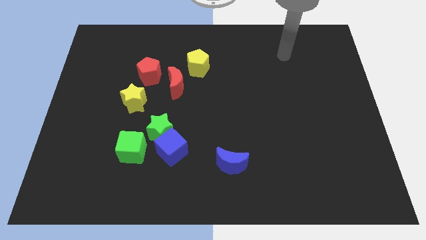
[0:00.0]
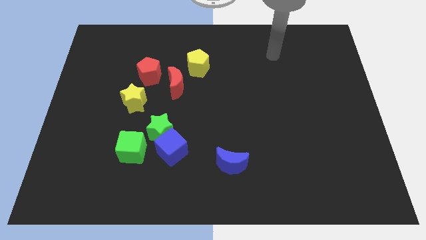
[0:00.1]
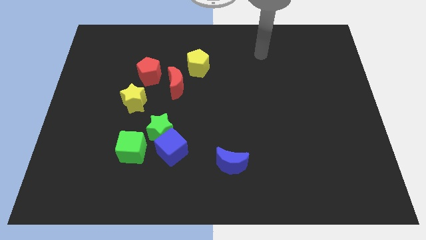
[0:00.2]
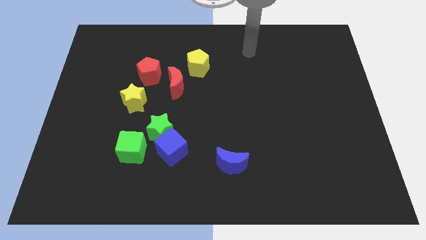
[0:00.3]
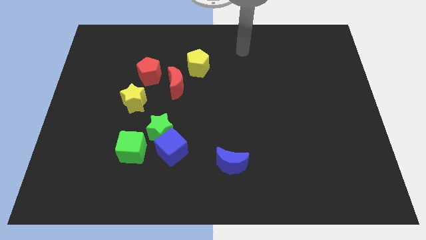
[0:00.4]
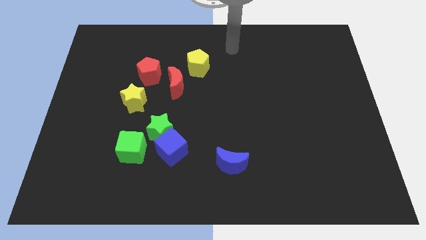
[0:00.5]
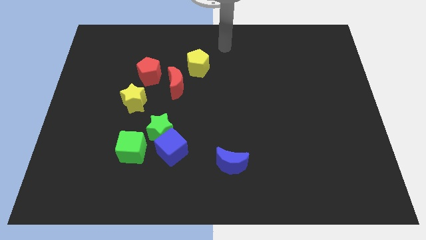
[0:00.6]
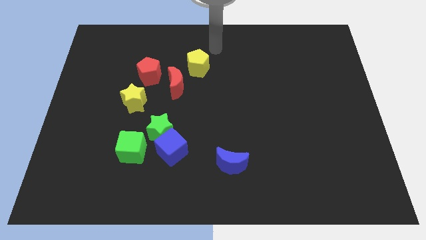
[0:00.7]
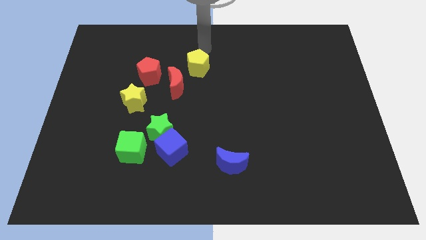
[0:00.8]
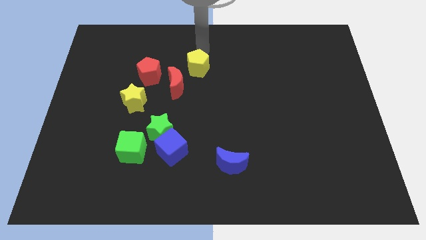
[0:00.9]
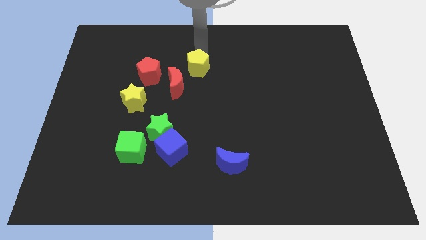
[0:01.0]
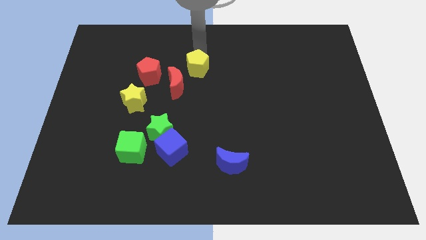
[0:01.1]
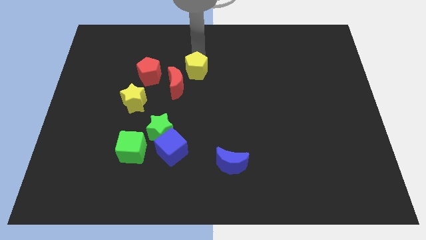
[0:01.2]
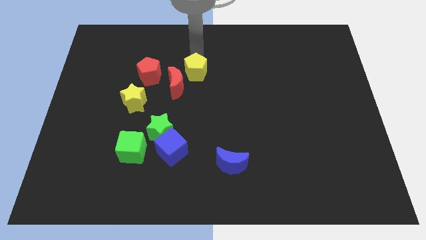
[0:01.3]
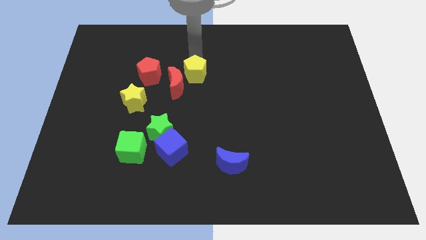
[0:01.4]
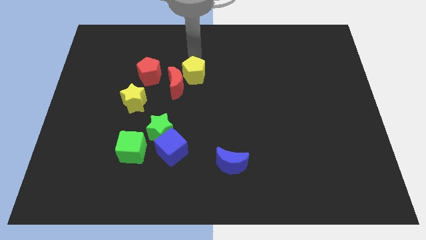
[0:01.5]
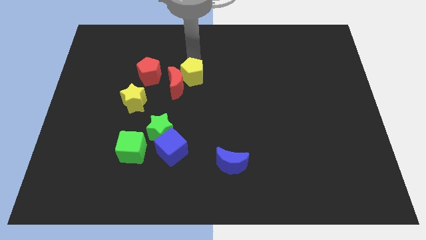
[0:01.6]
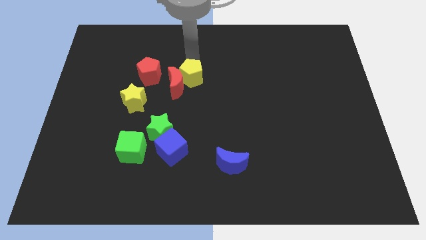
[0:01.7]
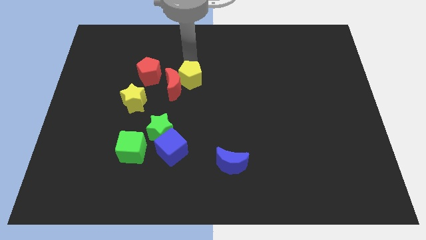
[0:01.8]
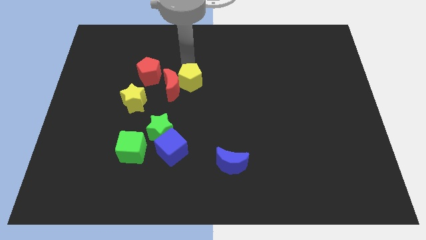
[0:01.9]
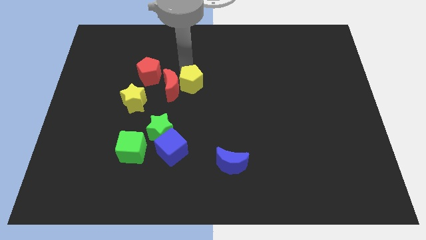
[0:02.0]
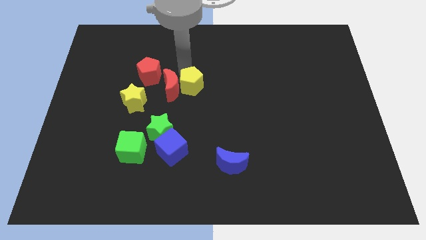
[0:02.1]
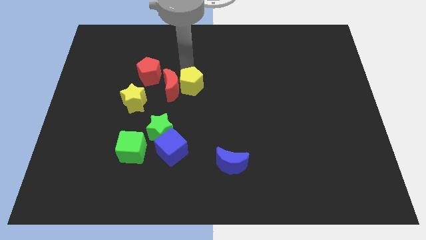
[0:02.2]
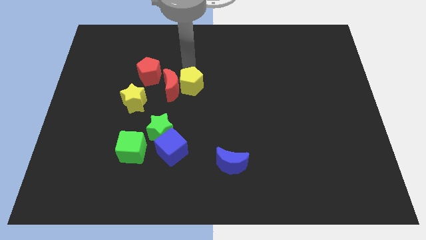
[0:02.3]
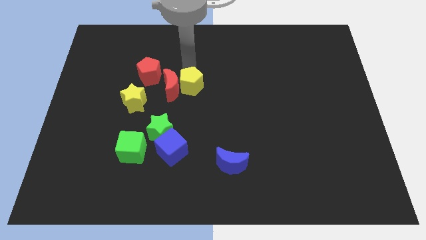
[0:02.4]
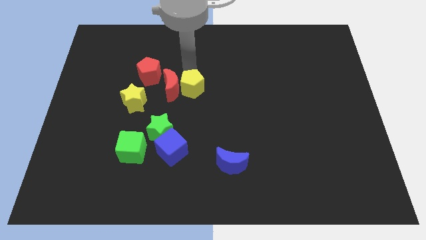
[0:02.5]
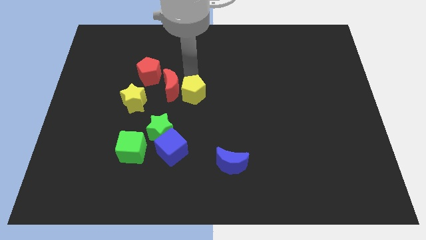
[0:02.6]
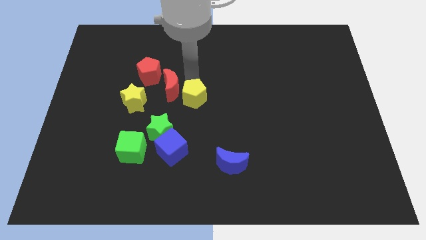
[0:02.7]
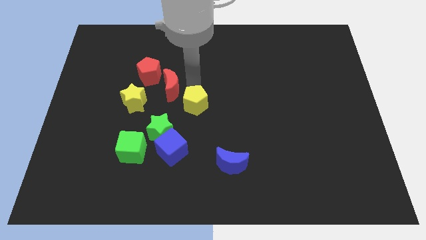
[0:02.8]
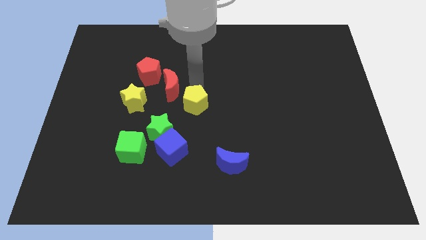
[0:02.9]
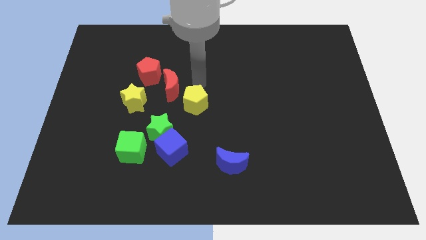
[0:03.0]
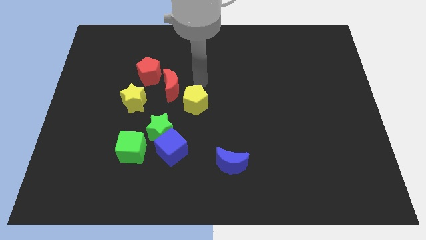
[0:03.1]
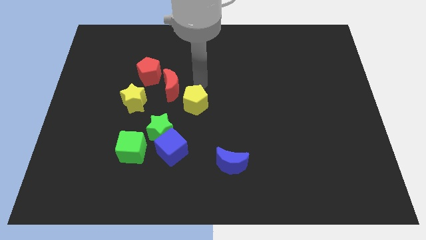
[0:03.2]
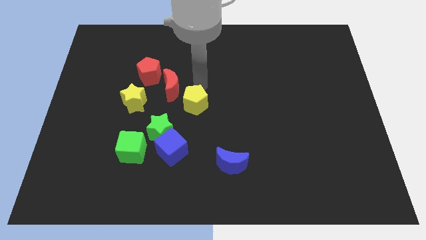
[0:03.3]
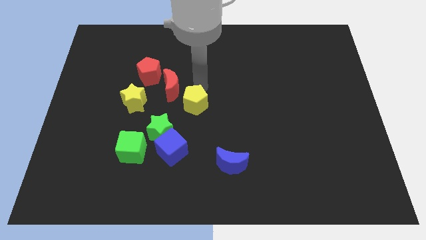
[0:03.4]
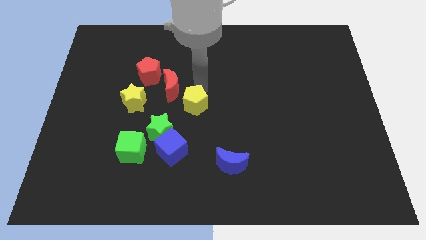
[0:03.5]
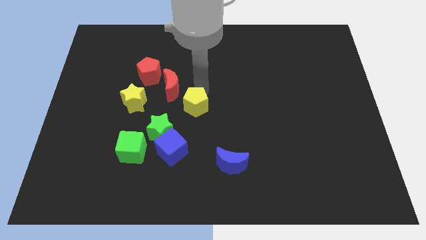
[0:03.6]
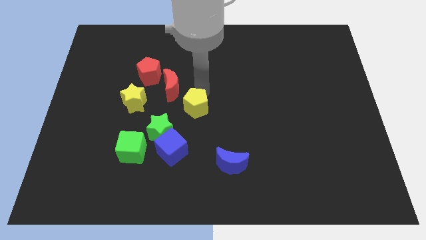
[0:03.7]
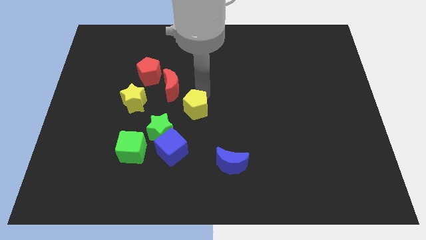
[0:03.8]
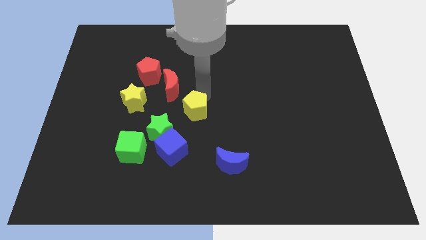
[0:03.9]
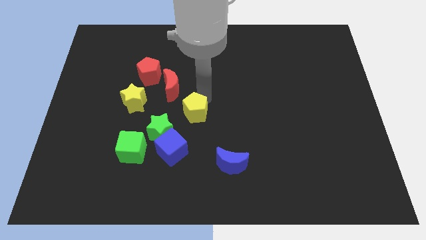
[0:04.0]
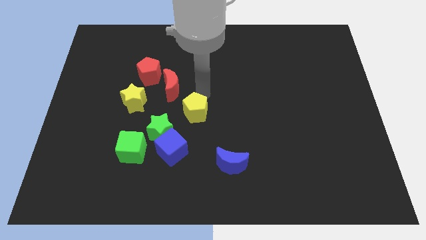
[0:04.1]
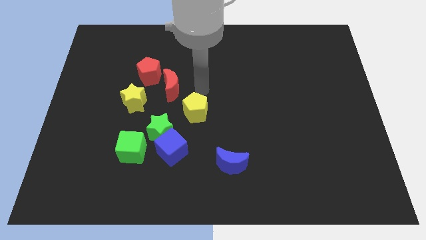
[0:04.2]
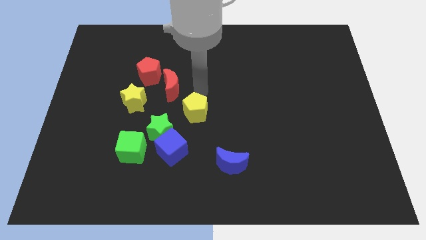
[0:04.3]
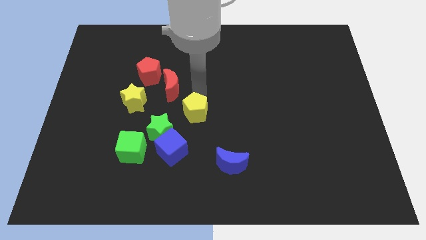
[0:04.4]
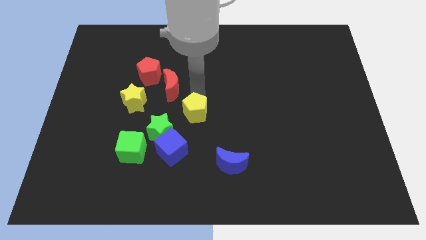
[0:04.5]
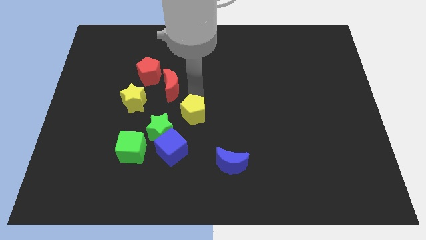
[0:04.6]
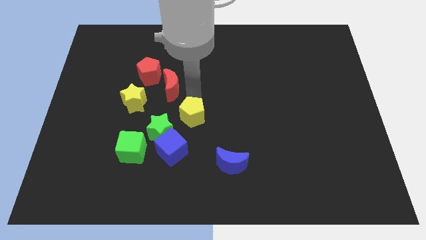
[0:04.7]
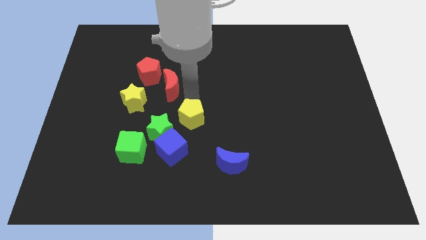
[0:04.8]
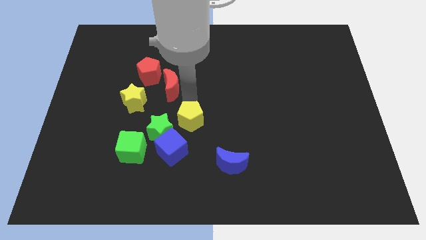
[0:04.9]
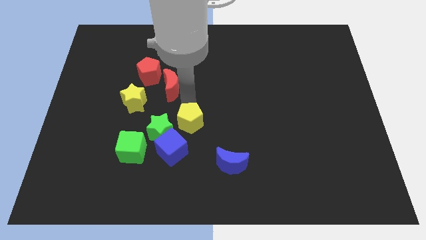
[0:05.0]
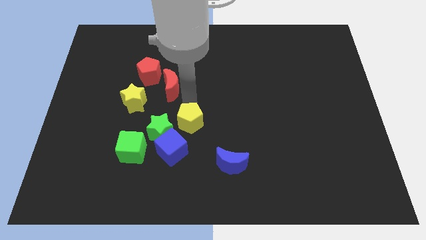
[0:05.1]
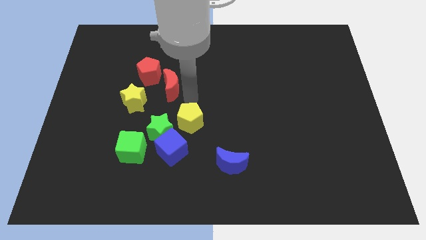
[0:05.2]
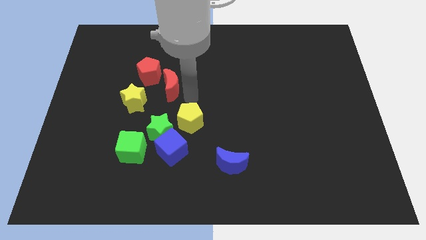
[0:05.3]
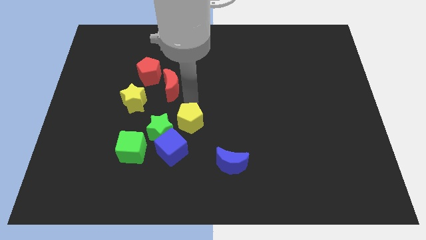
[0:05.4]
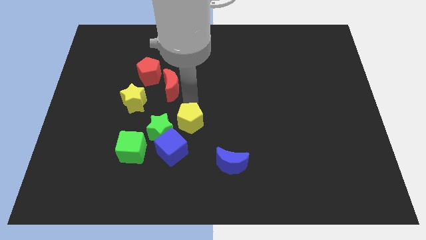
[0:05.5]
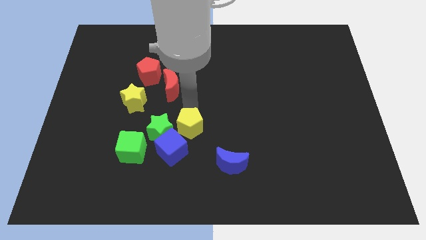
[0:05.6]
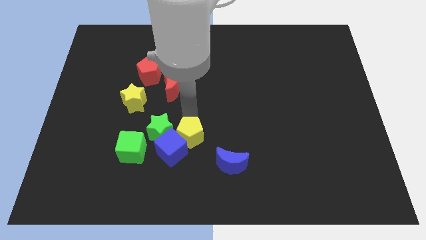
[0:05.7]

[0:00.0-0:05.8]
push the yellow pentagon down

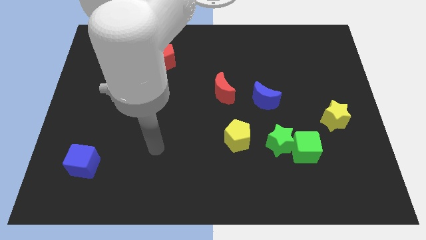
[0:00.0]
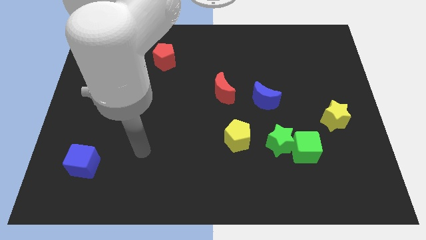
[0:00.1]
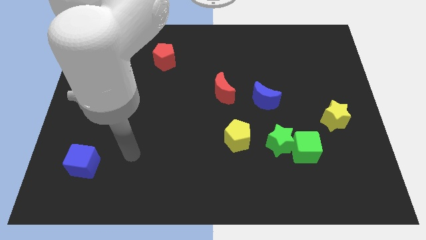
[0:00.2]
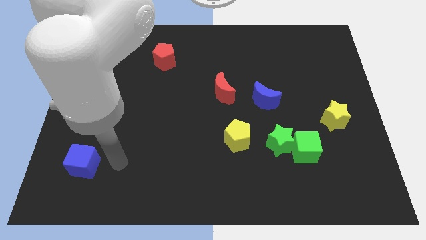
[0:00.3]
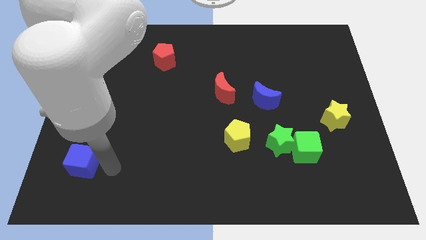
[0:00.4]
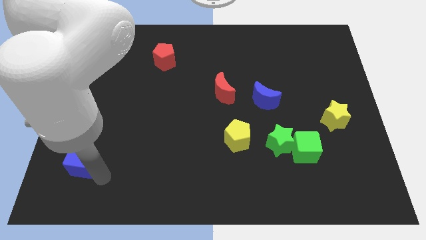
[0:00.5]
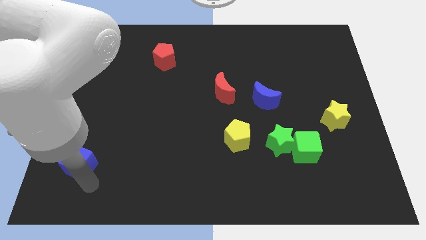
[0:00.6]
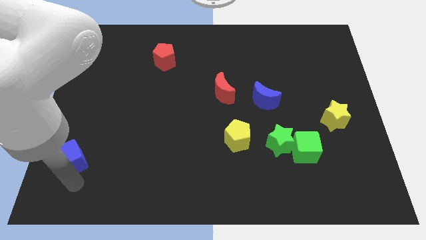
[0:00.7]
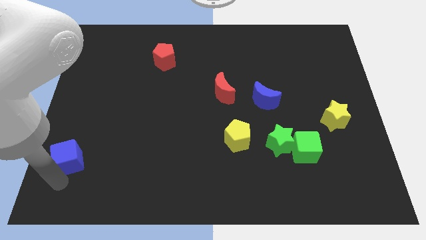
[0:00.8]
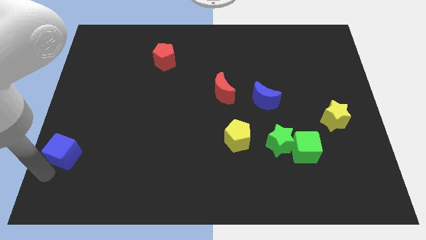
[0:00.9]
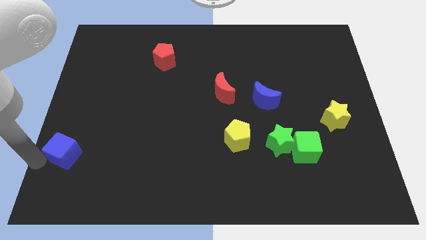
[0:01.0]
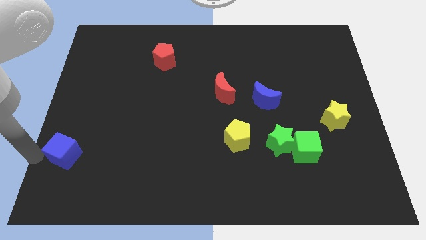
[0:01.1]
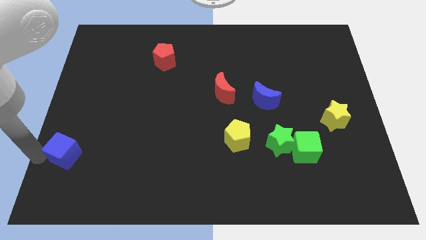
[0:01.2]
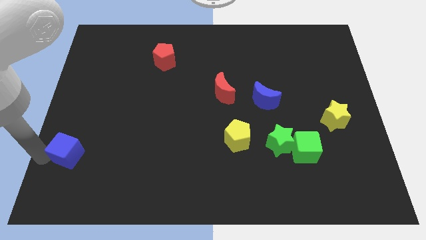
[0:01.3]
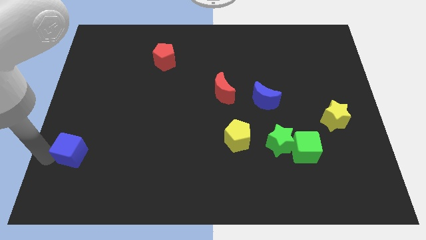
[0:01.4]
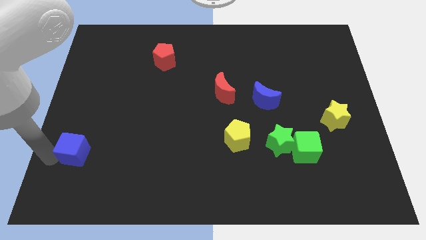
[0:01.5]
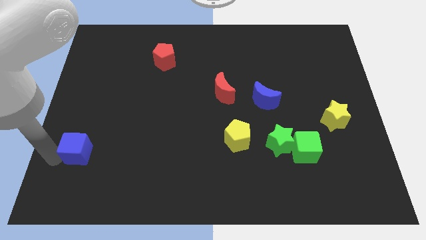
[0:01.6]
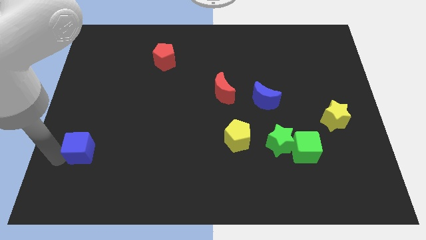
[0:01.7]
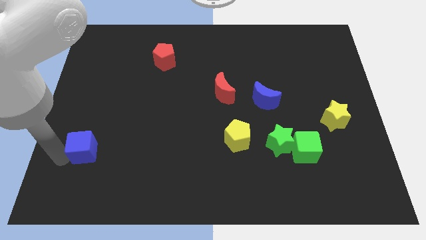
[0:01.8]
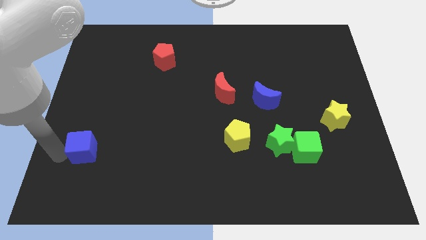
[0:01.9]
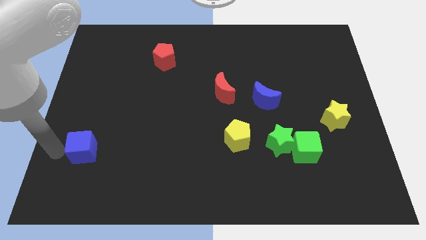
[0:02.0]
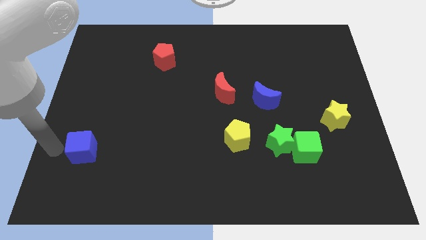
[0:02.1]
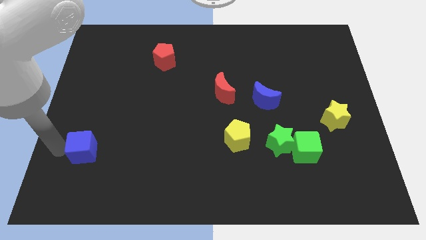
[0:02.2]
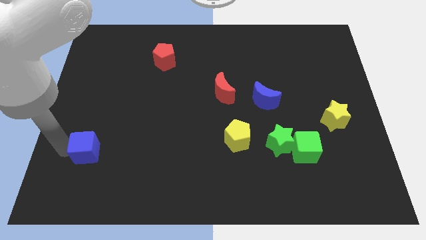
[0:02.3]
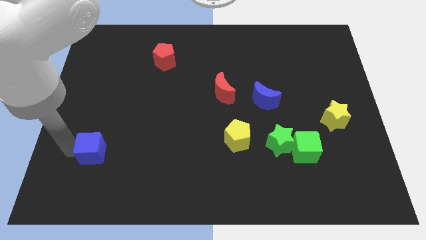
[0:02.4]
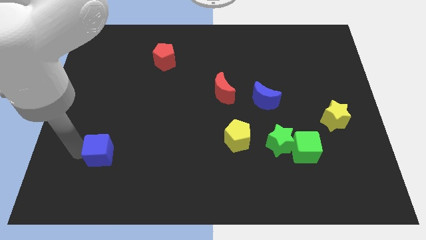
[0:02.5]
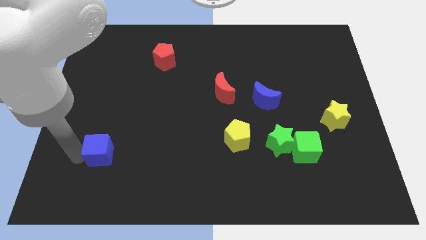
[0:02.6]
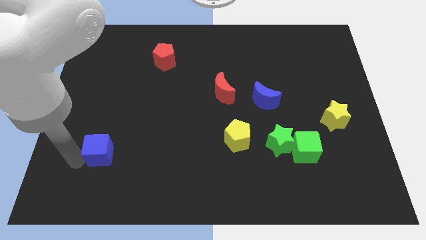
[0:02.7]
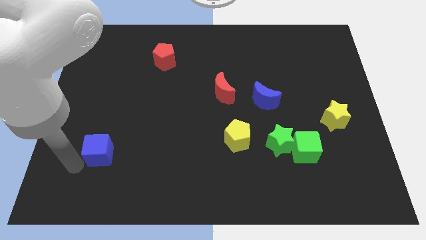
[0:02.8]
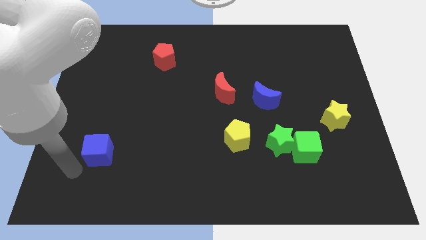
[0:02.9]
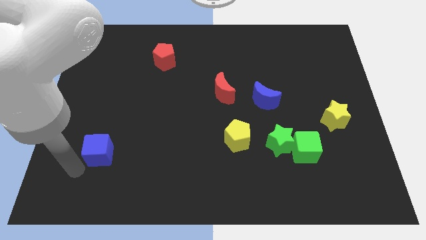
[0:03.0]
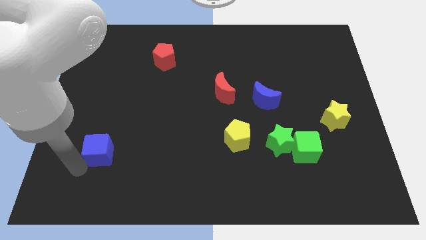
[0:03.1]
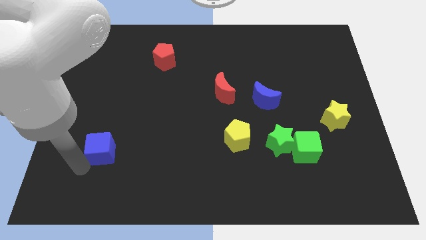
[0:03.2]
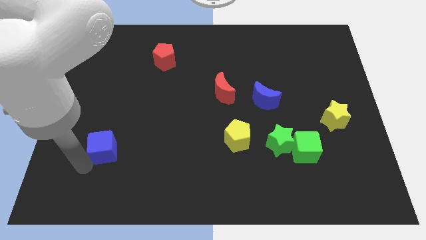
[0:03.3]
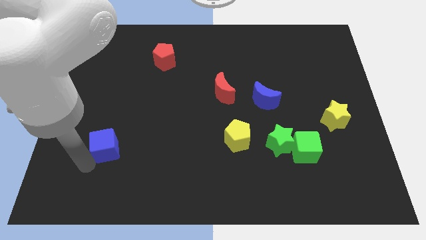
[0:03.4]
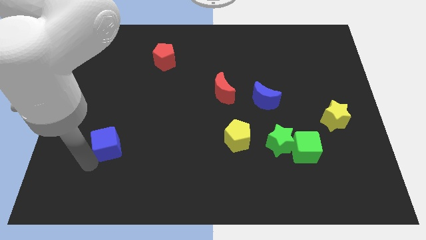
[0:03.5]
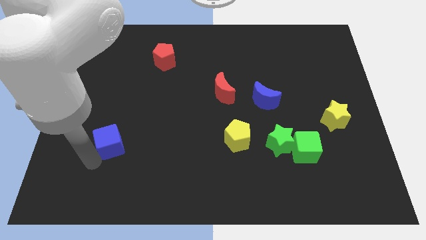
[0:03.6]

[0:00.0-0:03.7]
slide the blue cube upwards and to the right diagonally slightly
